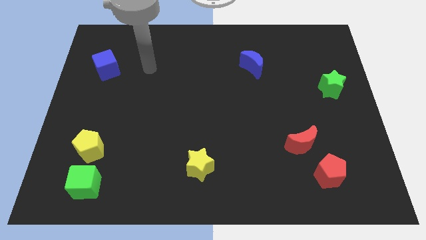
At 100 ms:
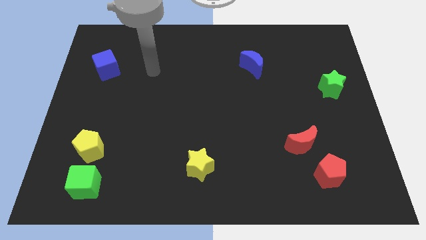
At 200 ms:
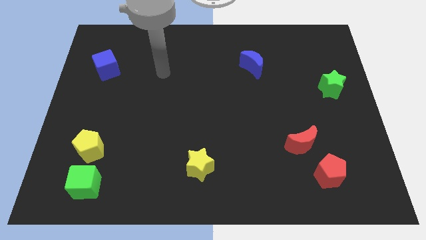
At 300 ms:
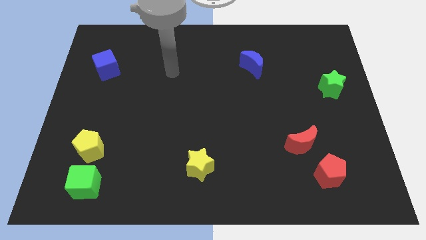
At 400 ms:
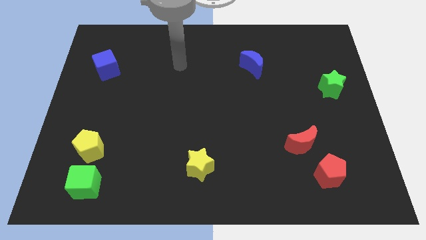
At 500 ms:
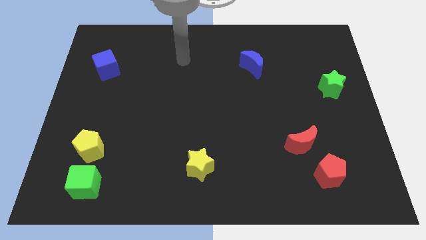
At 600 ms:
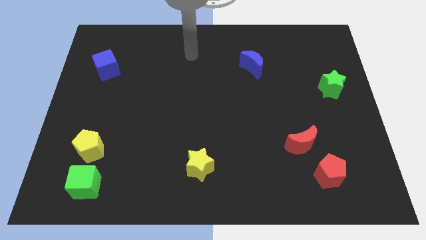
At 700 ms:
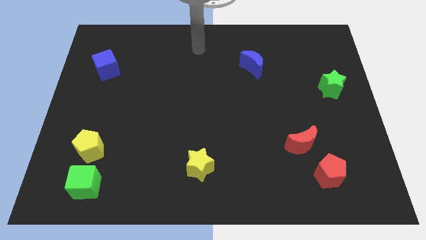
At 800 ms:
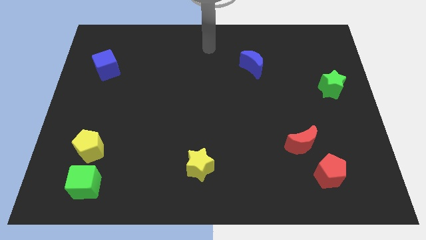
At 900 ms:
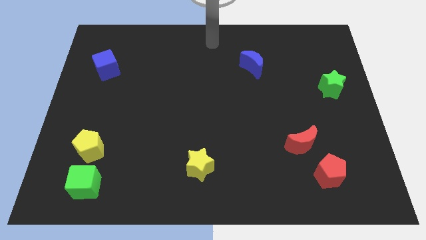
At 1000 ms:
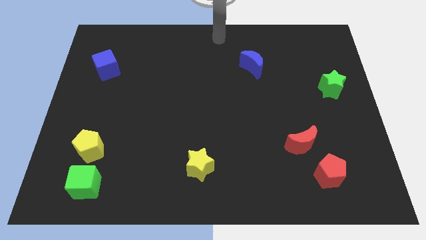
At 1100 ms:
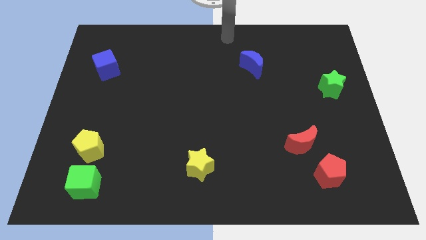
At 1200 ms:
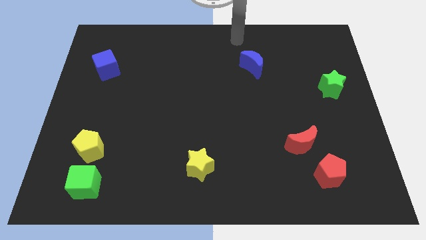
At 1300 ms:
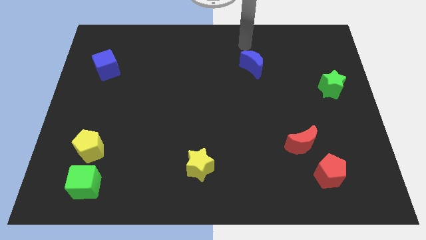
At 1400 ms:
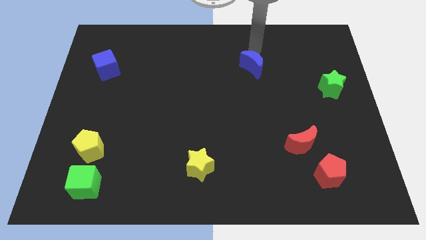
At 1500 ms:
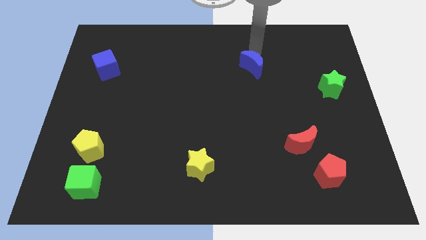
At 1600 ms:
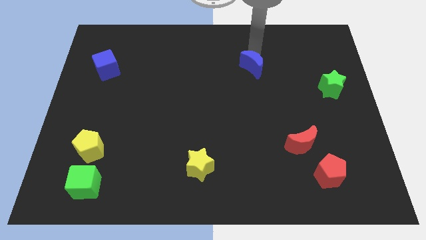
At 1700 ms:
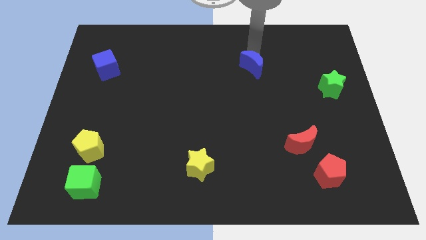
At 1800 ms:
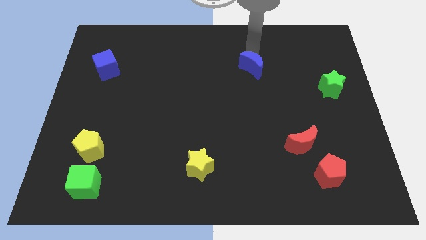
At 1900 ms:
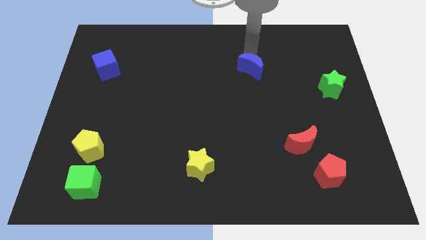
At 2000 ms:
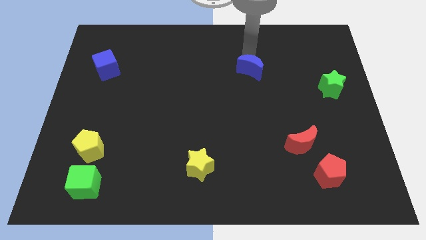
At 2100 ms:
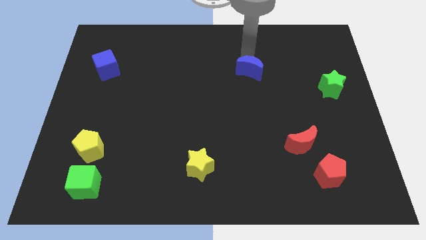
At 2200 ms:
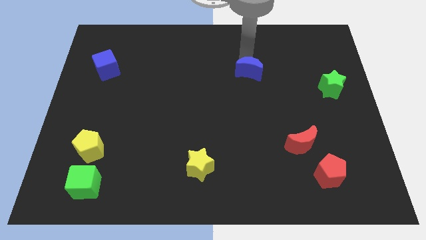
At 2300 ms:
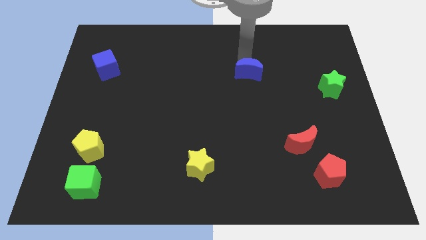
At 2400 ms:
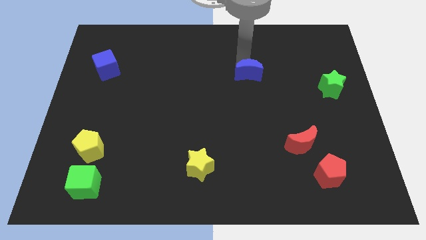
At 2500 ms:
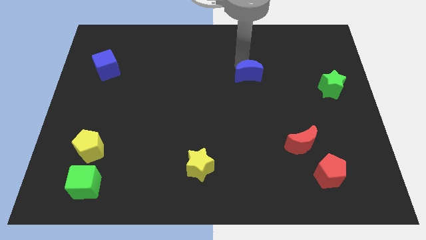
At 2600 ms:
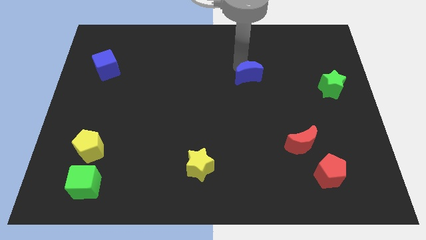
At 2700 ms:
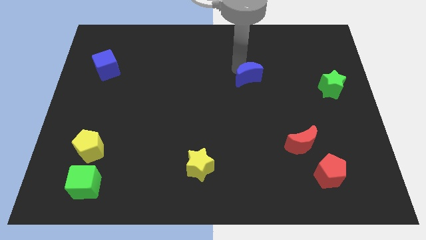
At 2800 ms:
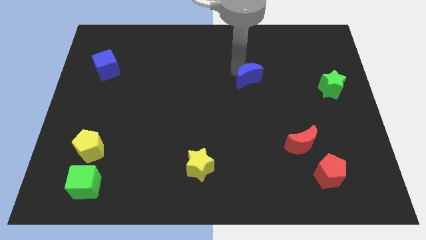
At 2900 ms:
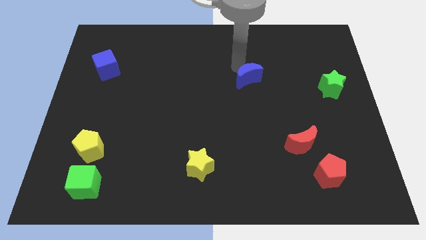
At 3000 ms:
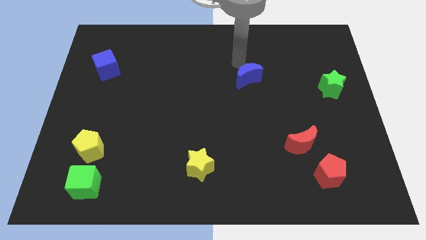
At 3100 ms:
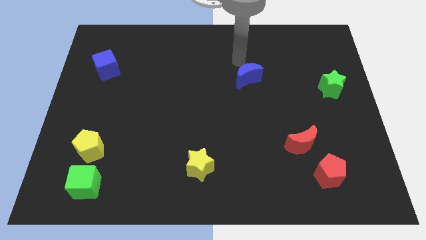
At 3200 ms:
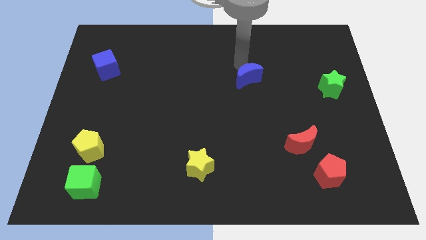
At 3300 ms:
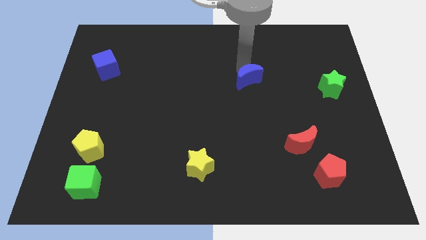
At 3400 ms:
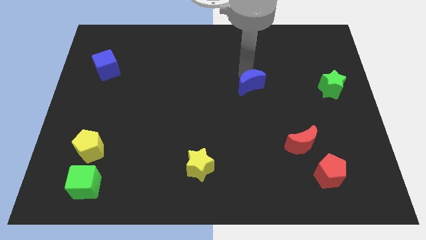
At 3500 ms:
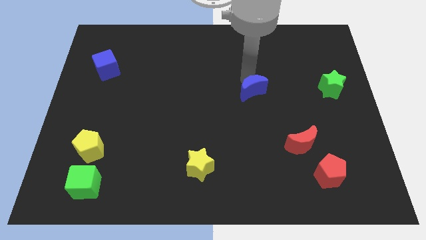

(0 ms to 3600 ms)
push the blue moon downwards slightly

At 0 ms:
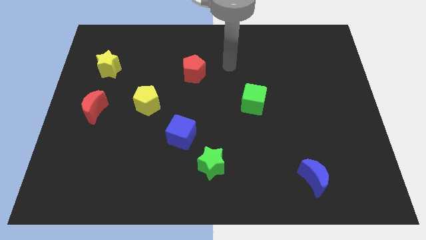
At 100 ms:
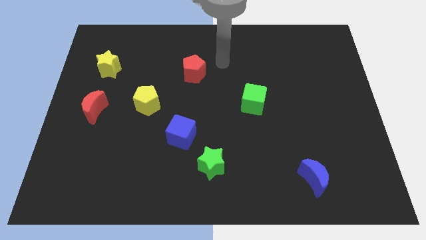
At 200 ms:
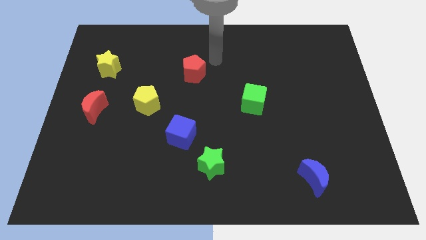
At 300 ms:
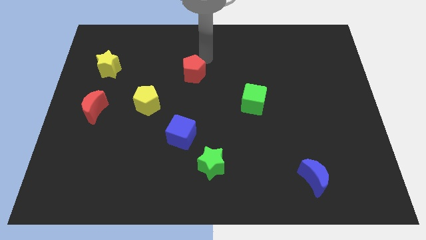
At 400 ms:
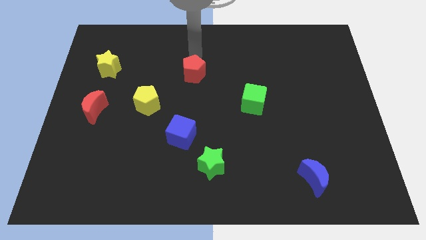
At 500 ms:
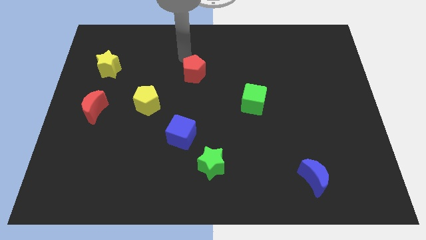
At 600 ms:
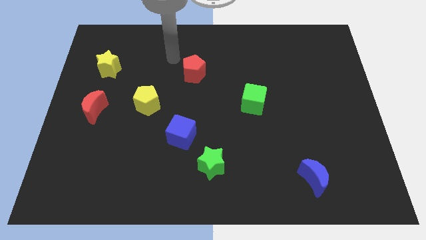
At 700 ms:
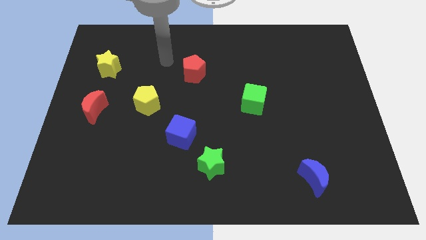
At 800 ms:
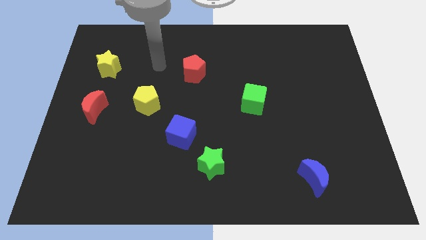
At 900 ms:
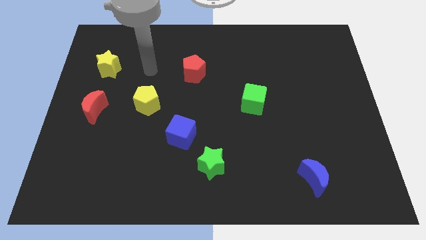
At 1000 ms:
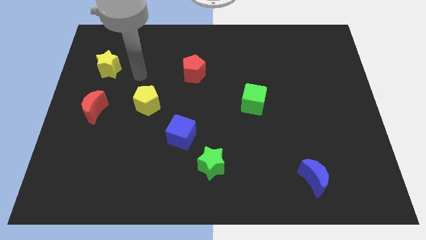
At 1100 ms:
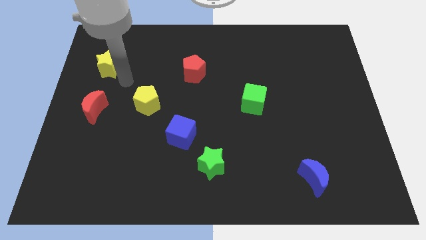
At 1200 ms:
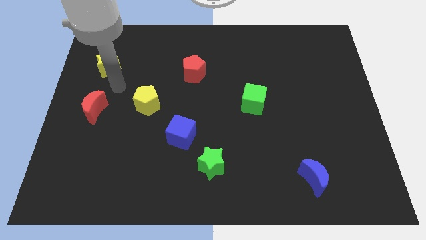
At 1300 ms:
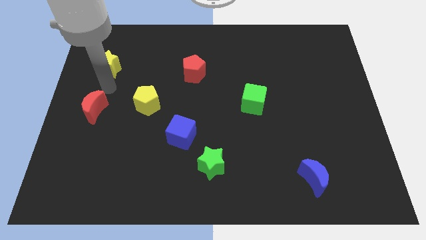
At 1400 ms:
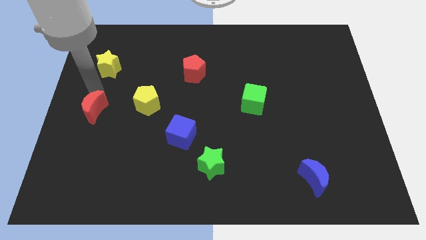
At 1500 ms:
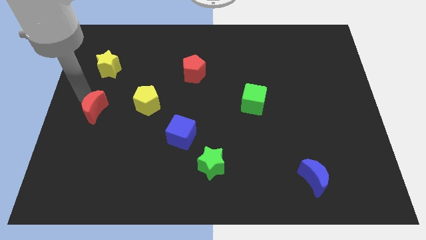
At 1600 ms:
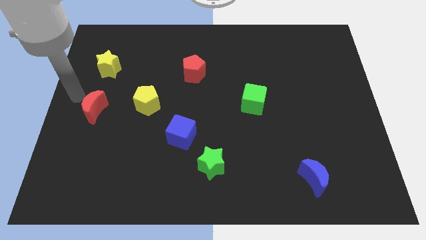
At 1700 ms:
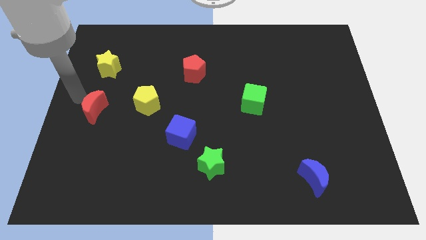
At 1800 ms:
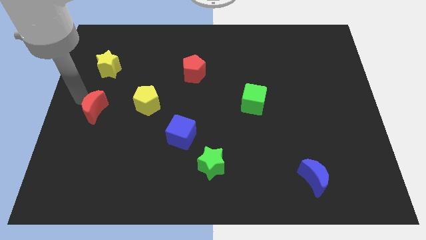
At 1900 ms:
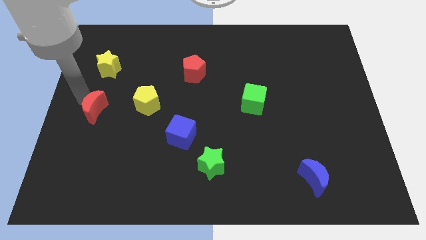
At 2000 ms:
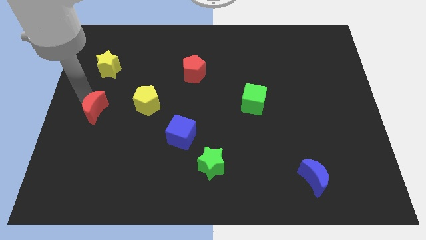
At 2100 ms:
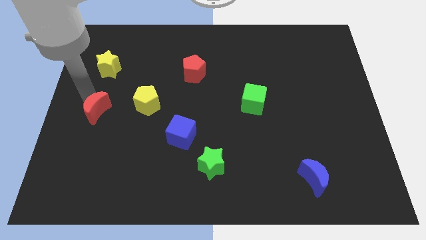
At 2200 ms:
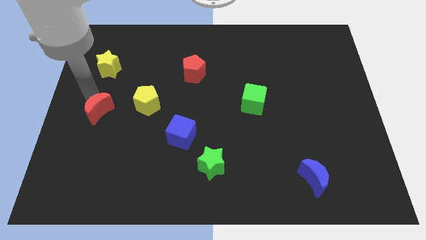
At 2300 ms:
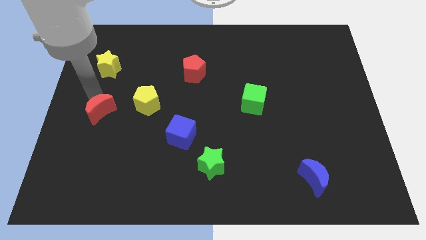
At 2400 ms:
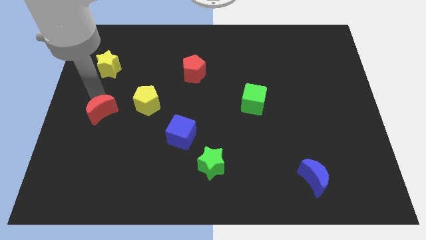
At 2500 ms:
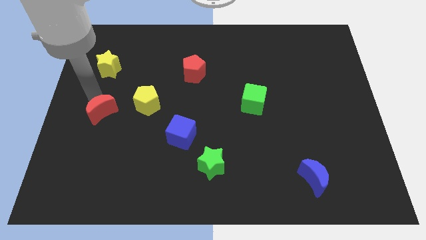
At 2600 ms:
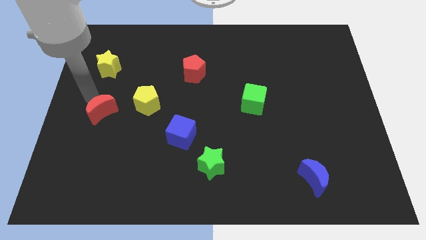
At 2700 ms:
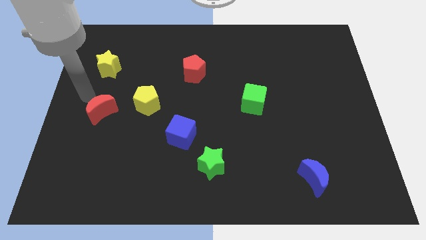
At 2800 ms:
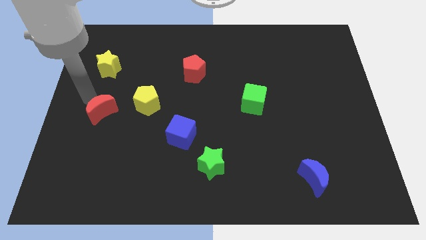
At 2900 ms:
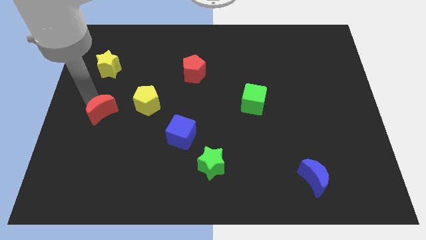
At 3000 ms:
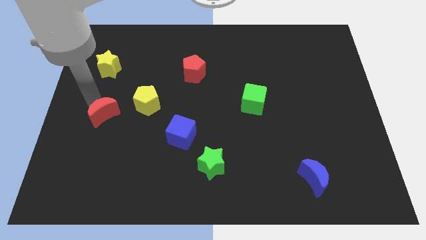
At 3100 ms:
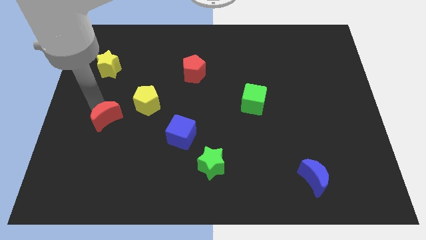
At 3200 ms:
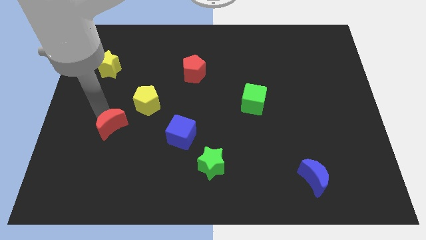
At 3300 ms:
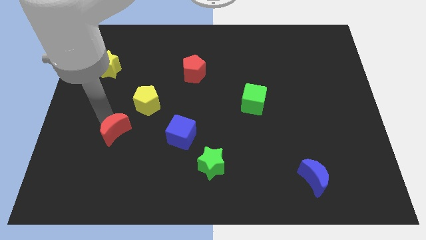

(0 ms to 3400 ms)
slide the red moon somewhat down and then to the right

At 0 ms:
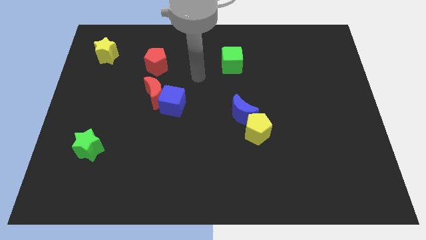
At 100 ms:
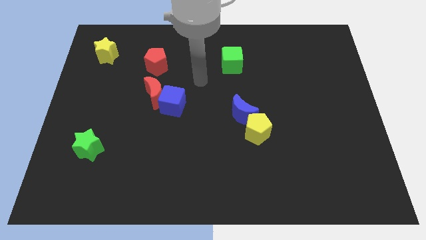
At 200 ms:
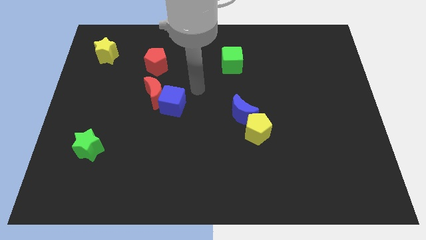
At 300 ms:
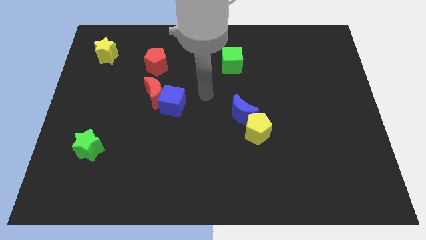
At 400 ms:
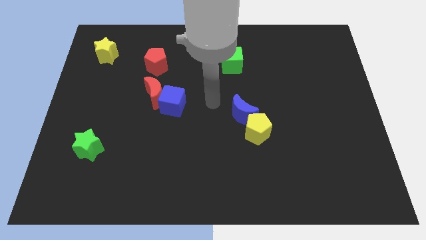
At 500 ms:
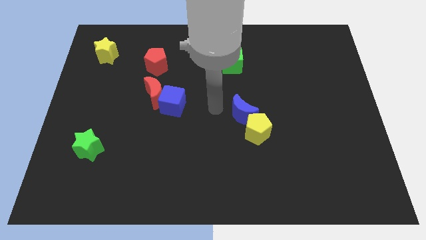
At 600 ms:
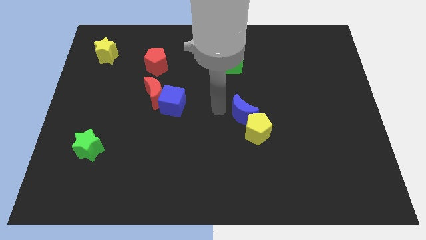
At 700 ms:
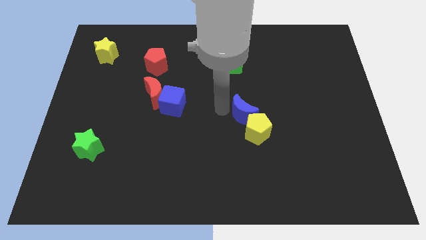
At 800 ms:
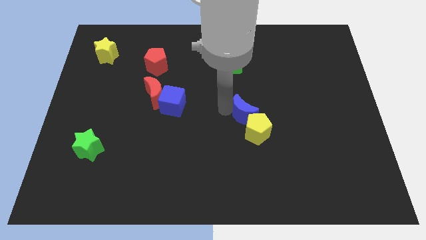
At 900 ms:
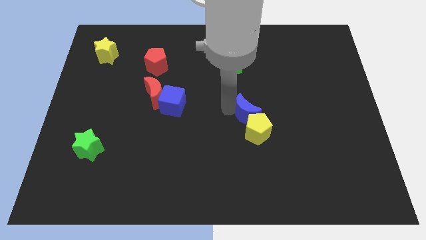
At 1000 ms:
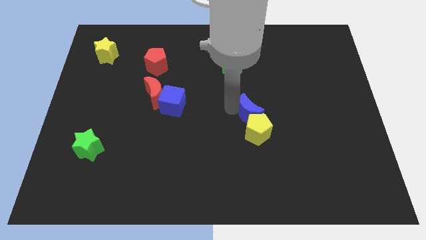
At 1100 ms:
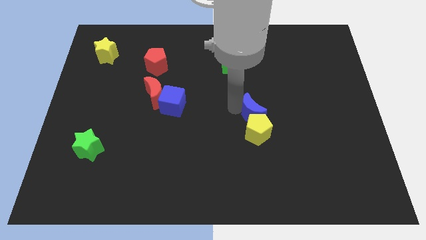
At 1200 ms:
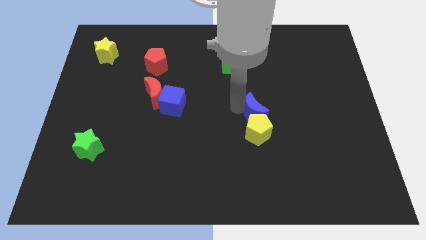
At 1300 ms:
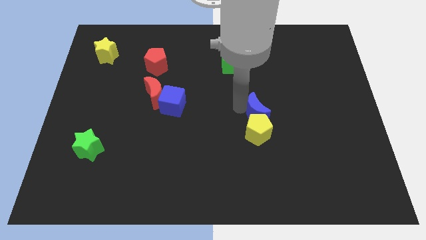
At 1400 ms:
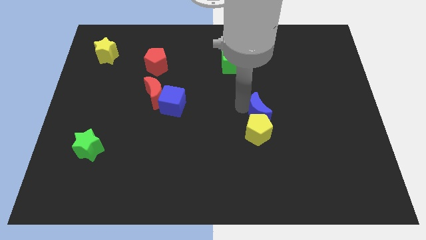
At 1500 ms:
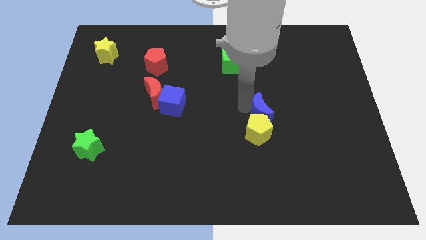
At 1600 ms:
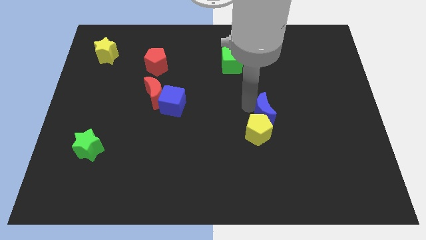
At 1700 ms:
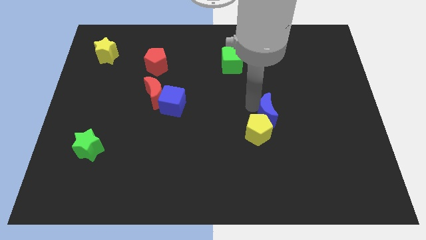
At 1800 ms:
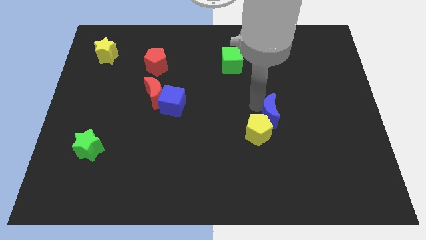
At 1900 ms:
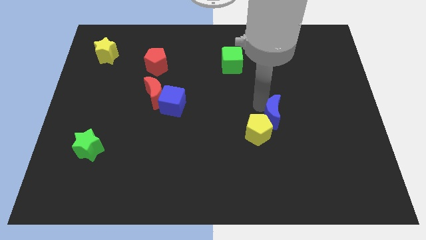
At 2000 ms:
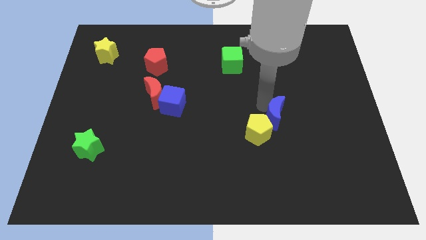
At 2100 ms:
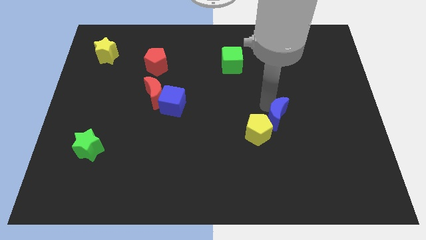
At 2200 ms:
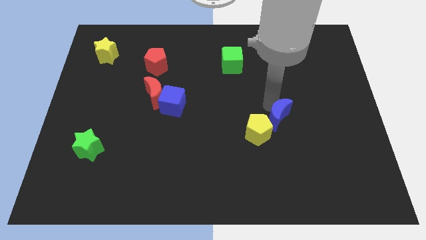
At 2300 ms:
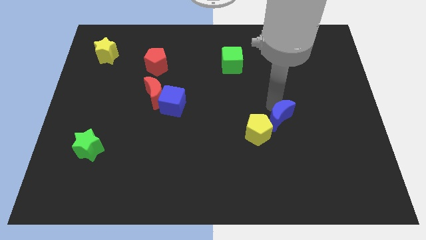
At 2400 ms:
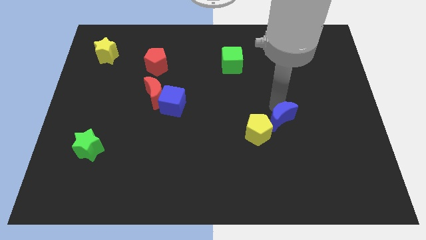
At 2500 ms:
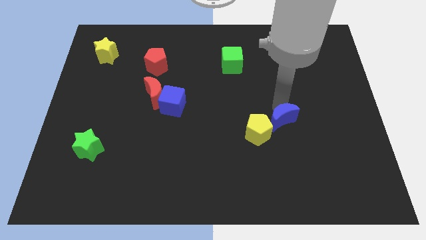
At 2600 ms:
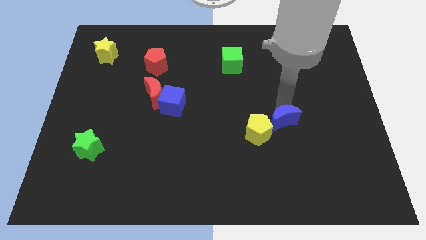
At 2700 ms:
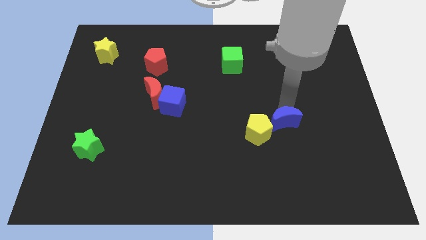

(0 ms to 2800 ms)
slide the blue moon down and then to the right a little bit
